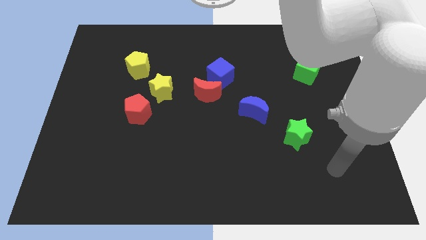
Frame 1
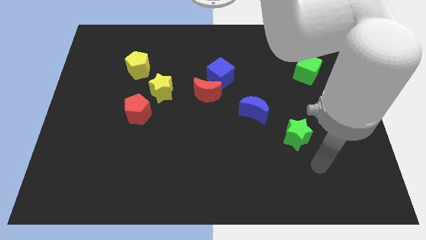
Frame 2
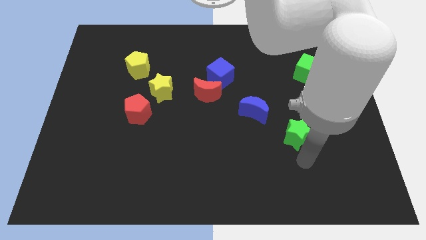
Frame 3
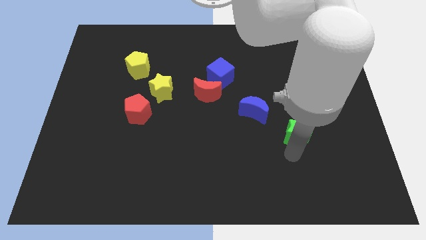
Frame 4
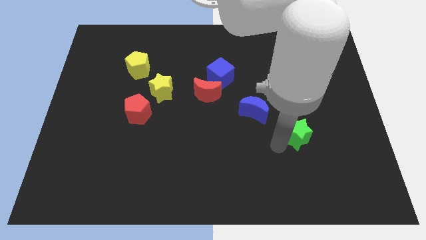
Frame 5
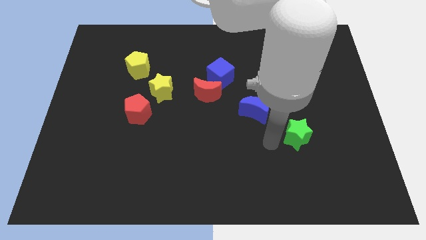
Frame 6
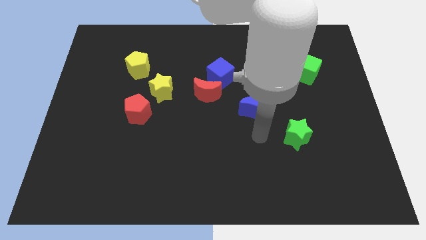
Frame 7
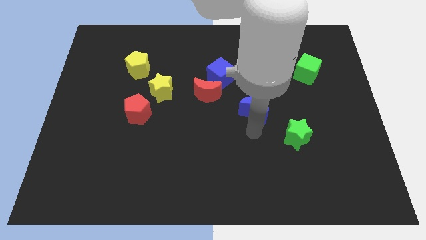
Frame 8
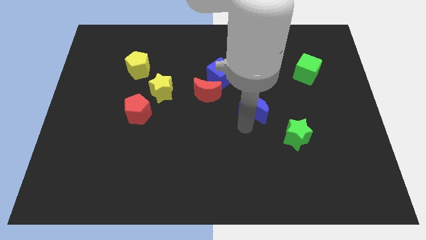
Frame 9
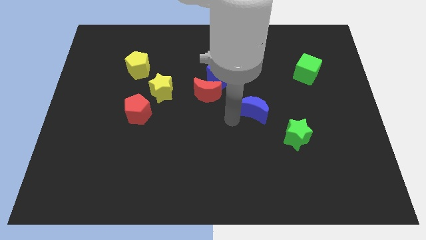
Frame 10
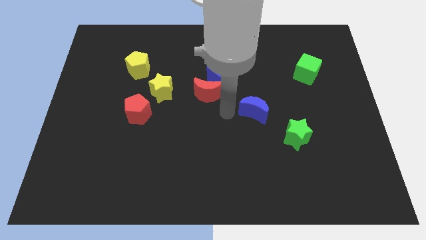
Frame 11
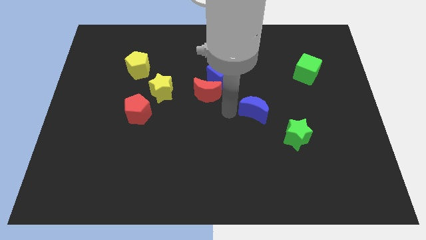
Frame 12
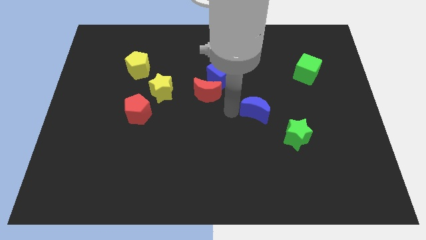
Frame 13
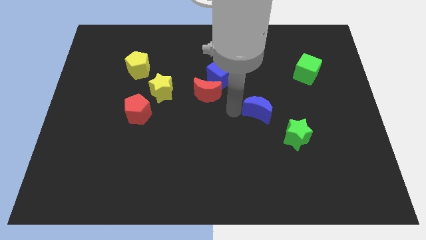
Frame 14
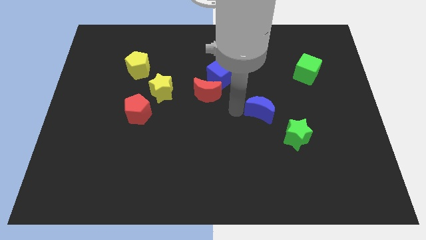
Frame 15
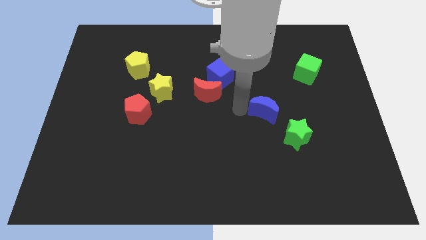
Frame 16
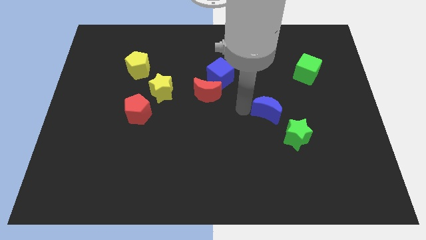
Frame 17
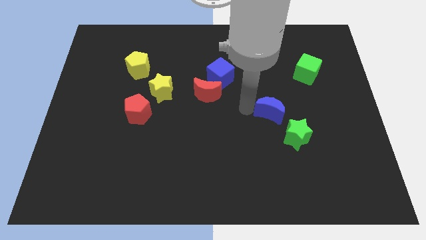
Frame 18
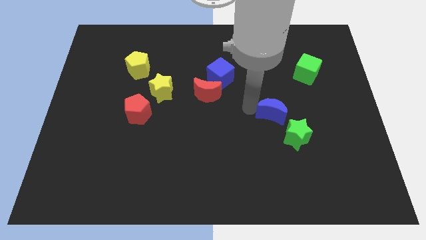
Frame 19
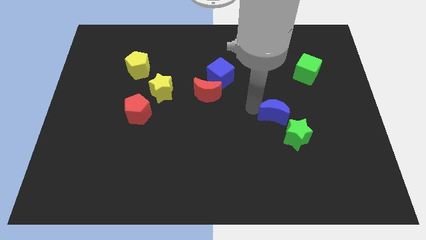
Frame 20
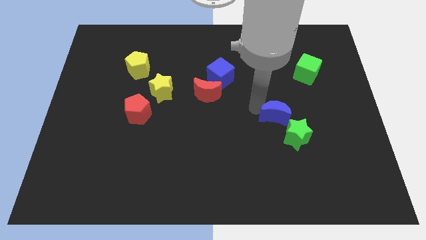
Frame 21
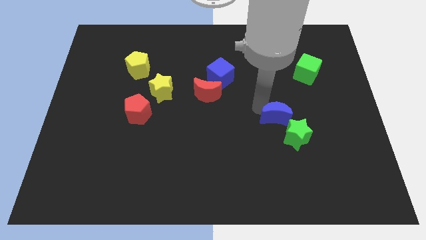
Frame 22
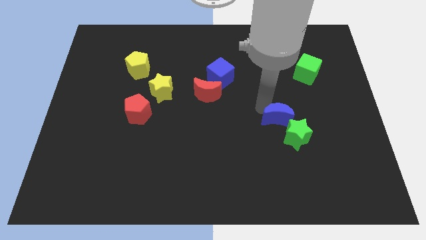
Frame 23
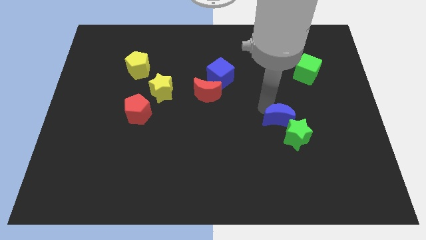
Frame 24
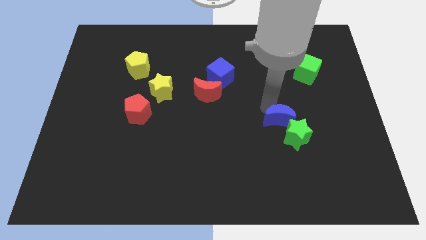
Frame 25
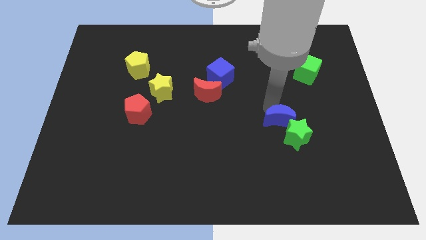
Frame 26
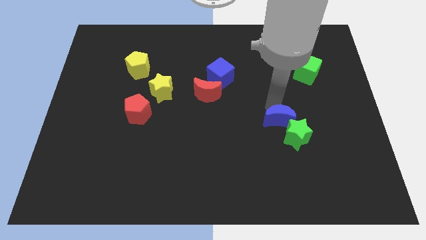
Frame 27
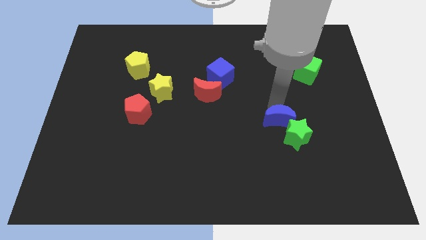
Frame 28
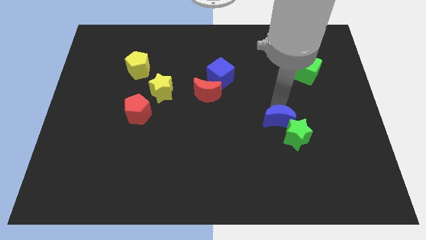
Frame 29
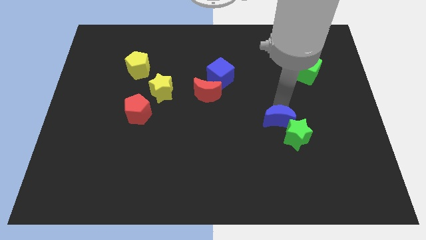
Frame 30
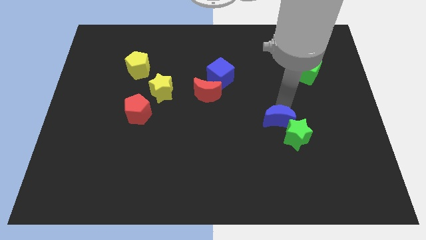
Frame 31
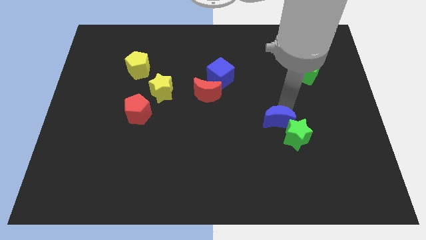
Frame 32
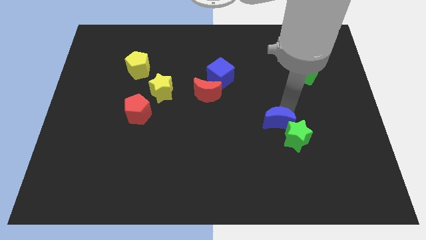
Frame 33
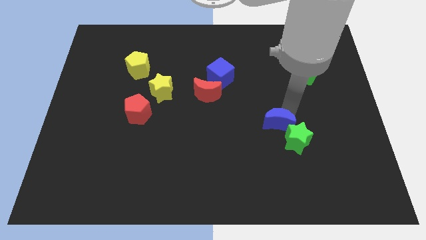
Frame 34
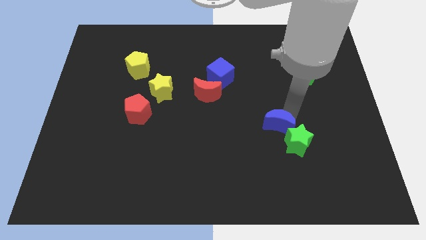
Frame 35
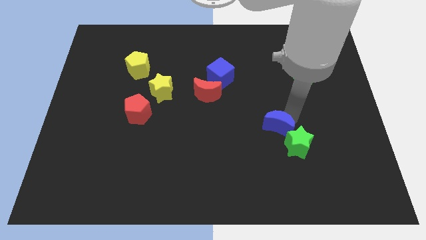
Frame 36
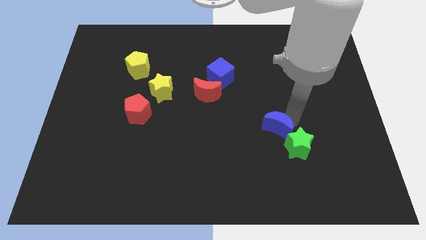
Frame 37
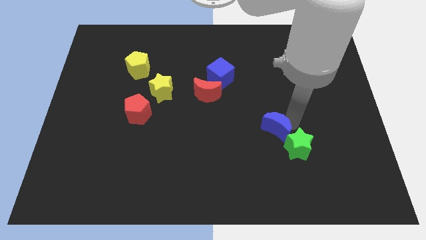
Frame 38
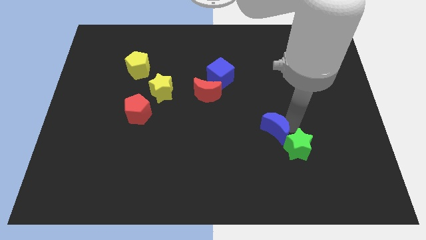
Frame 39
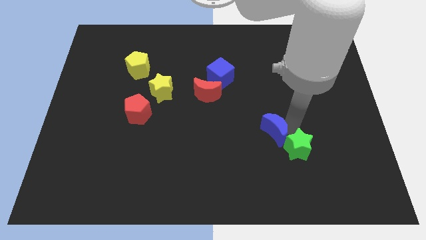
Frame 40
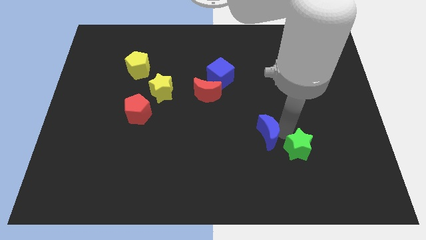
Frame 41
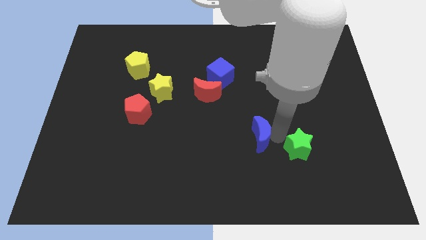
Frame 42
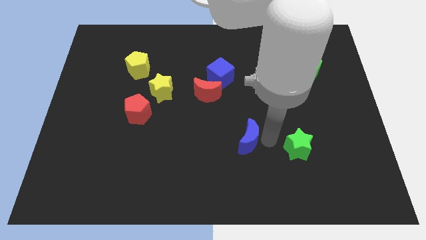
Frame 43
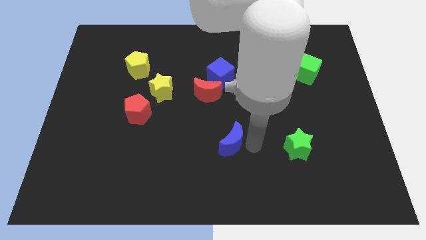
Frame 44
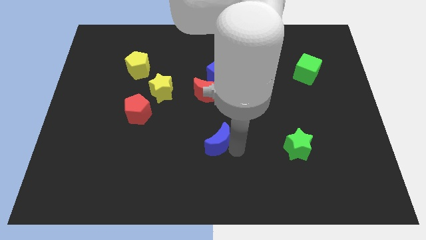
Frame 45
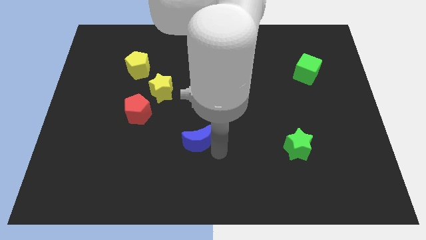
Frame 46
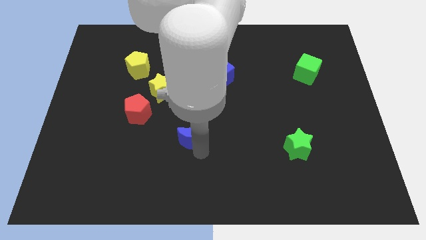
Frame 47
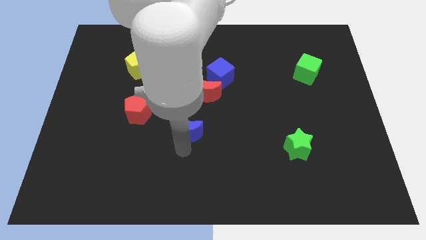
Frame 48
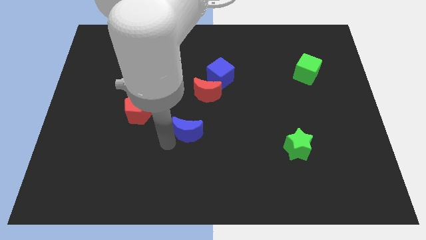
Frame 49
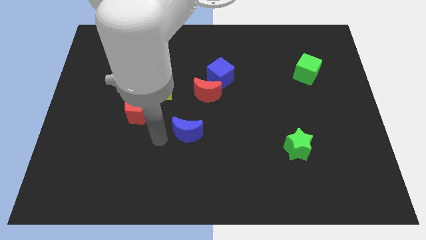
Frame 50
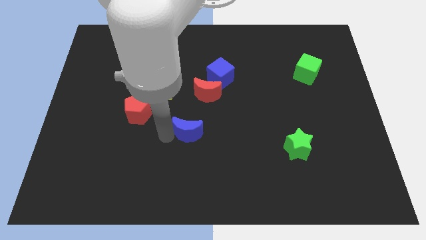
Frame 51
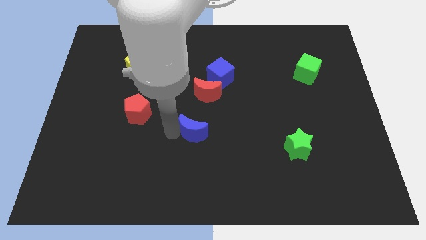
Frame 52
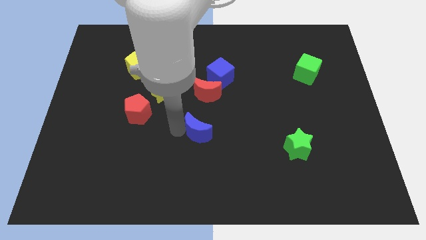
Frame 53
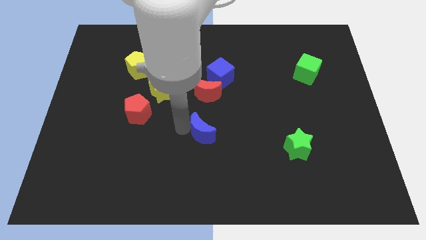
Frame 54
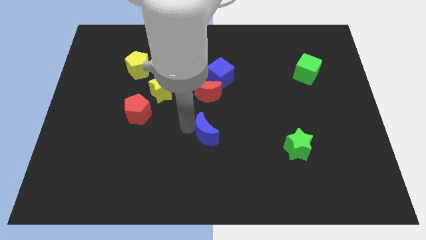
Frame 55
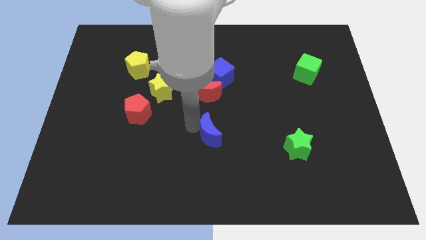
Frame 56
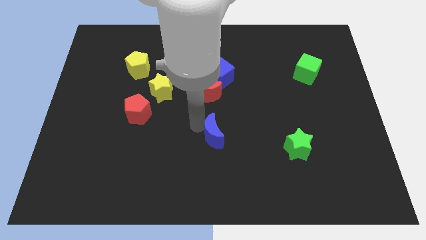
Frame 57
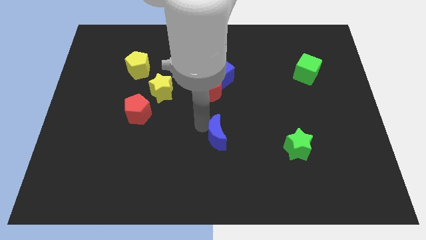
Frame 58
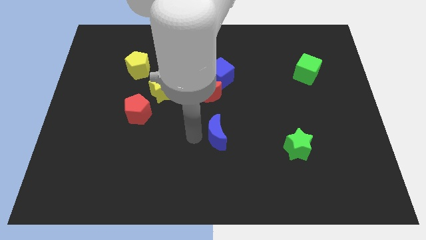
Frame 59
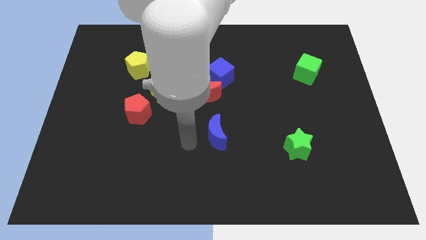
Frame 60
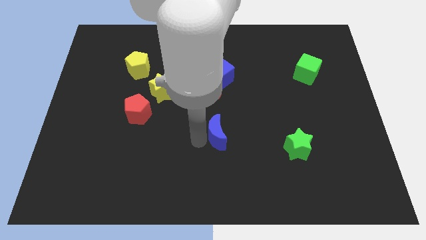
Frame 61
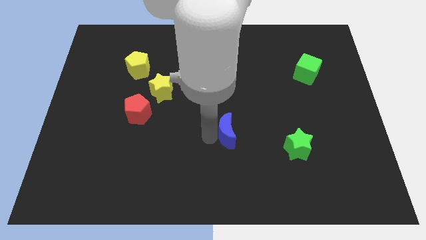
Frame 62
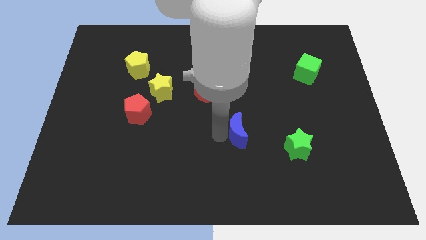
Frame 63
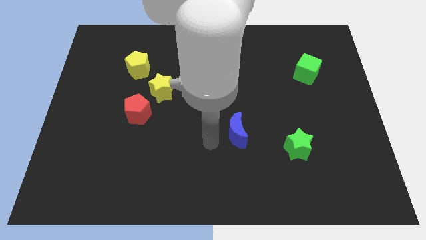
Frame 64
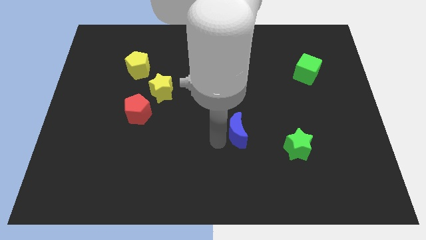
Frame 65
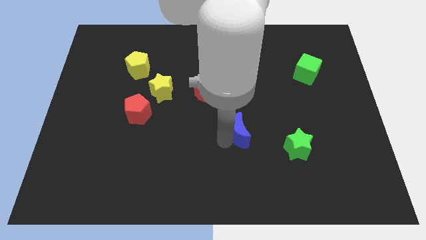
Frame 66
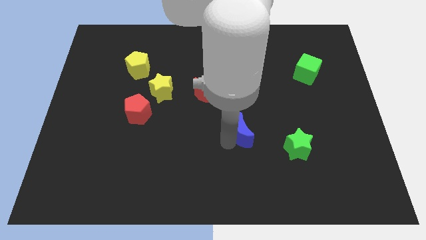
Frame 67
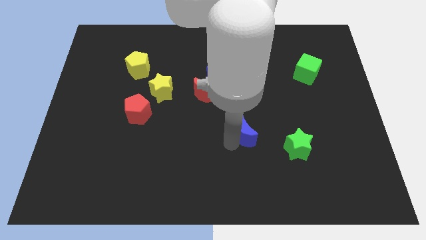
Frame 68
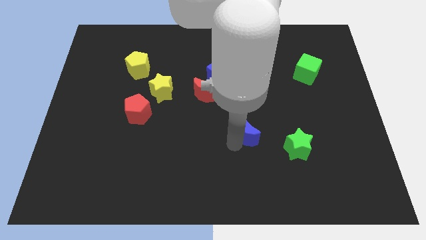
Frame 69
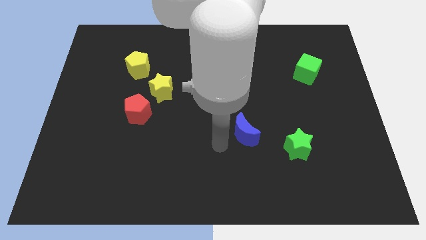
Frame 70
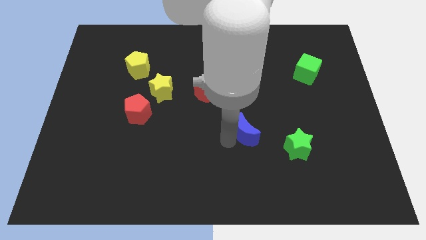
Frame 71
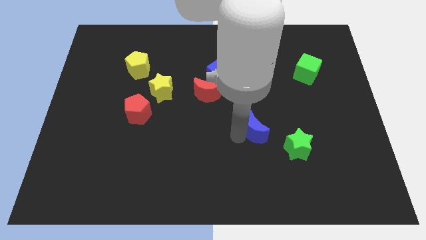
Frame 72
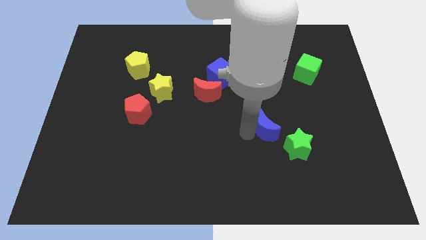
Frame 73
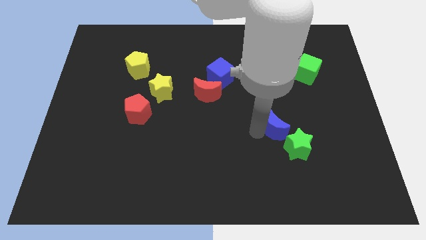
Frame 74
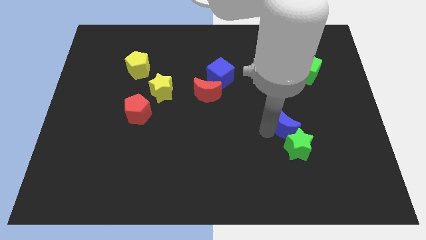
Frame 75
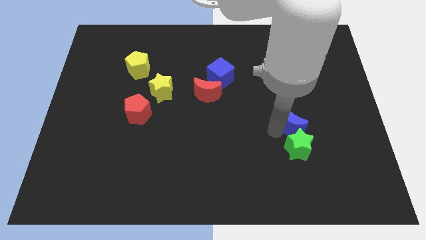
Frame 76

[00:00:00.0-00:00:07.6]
push the blue moon right a little

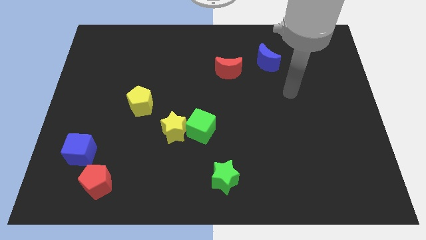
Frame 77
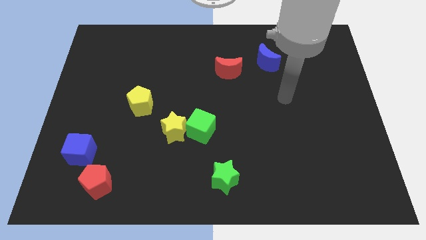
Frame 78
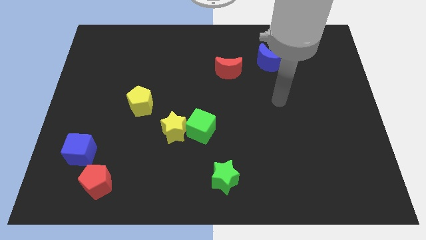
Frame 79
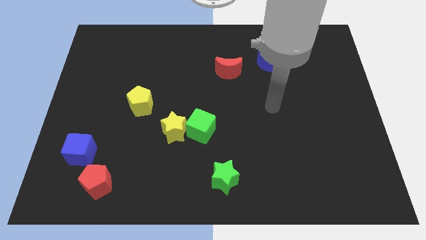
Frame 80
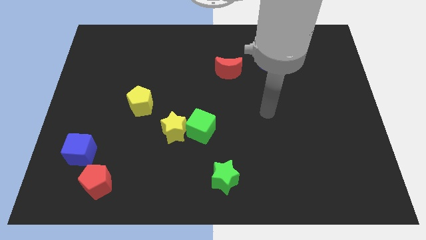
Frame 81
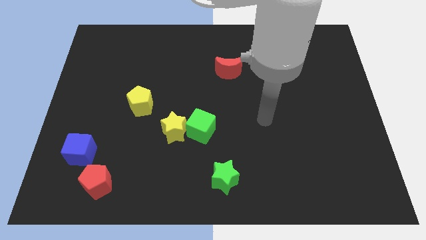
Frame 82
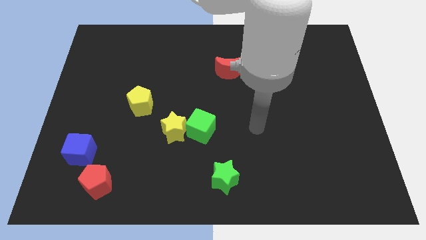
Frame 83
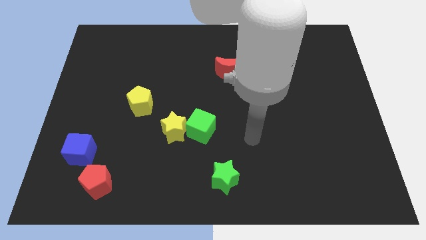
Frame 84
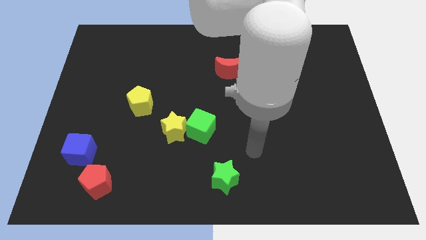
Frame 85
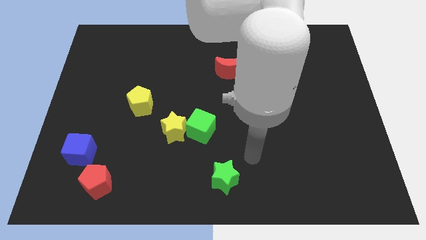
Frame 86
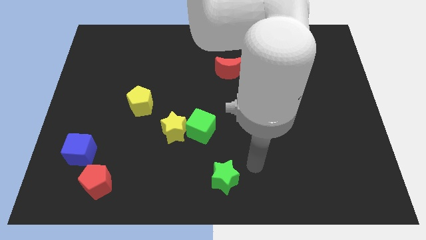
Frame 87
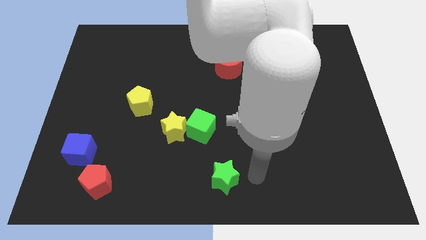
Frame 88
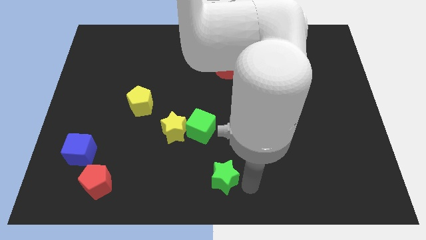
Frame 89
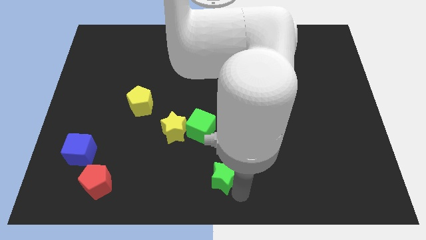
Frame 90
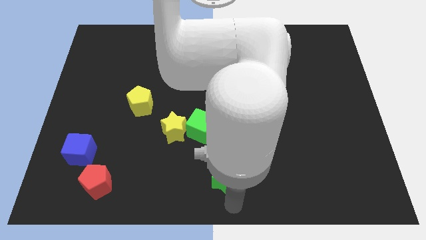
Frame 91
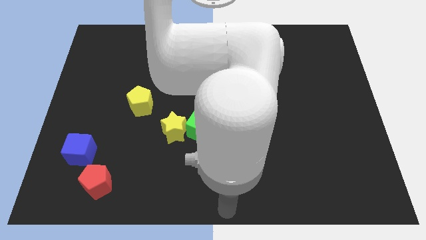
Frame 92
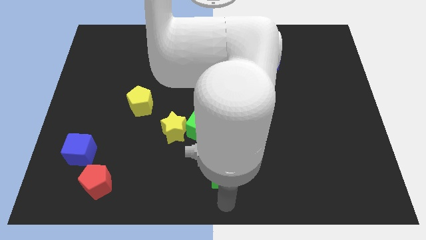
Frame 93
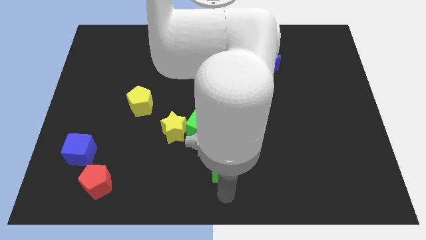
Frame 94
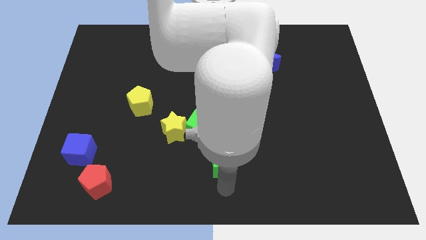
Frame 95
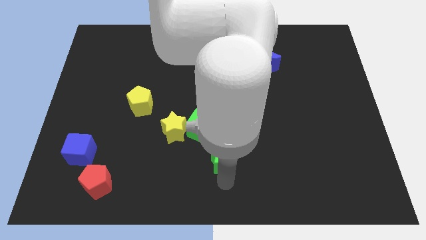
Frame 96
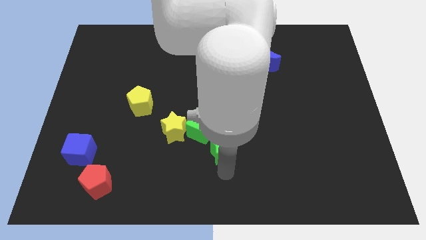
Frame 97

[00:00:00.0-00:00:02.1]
slightly slide the green star up
